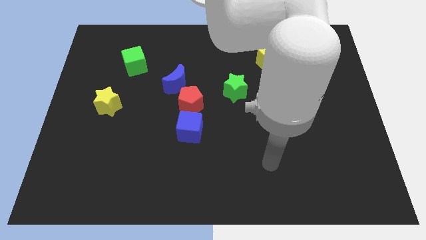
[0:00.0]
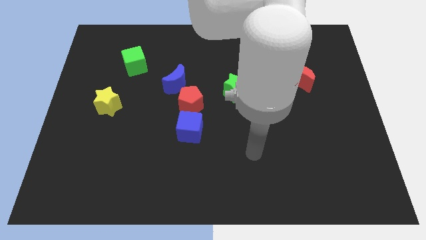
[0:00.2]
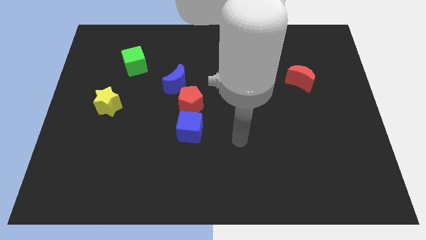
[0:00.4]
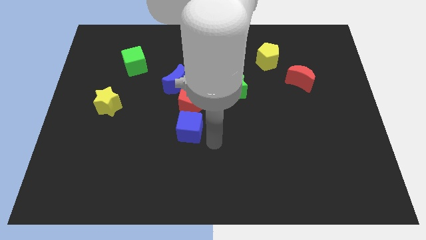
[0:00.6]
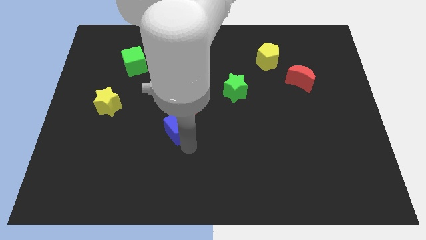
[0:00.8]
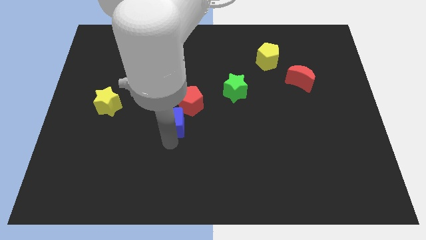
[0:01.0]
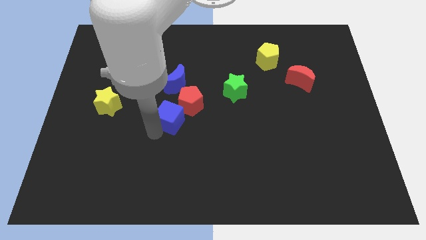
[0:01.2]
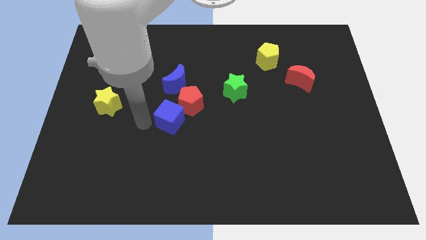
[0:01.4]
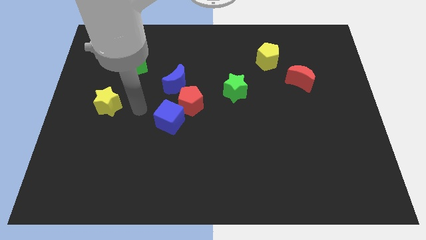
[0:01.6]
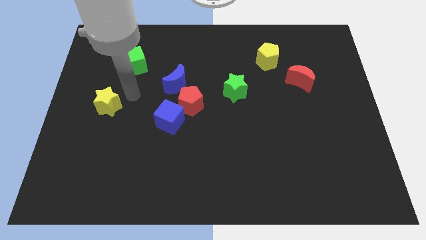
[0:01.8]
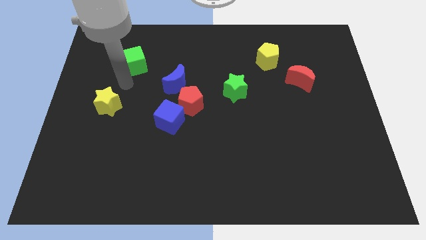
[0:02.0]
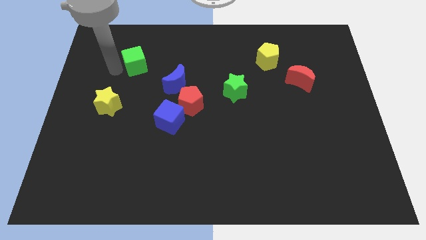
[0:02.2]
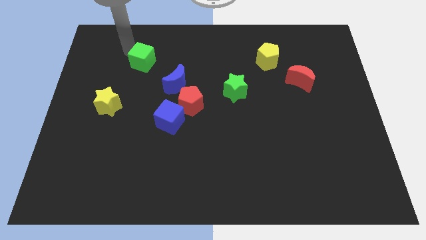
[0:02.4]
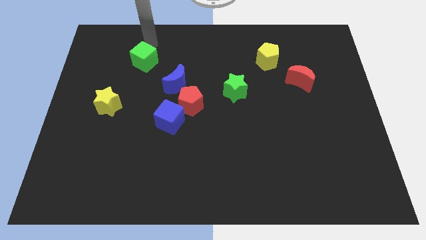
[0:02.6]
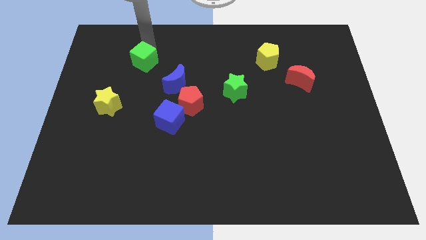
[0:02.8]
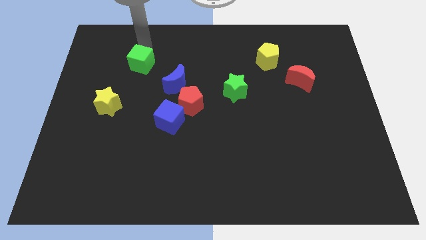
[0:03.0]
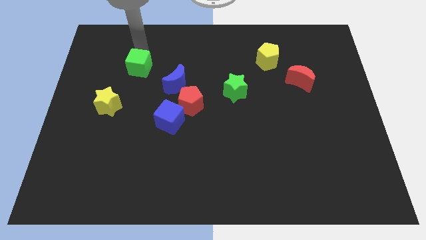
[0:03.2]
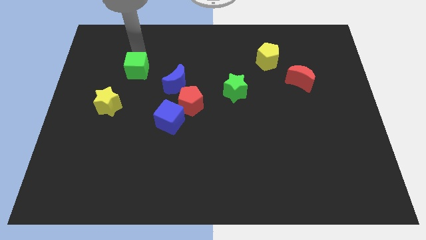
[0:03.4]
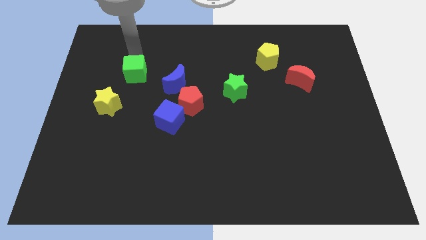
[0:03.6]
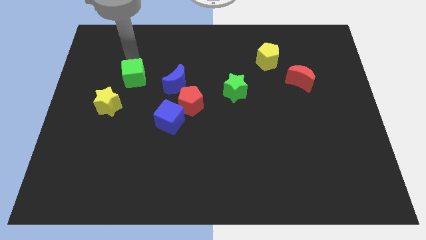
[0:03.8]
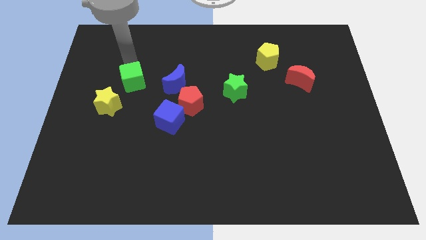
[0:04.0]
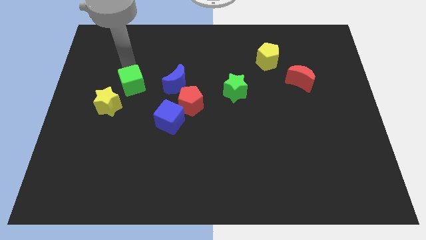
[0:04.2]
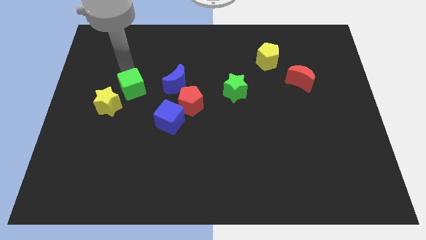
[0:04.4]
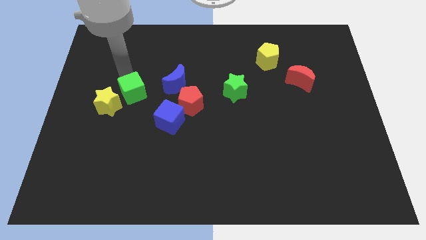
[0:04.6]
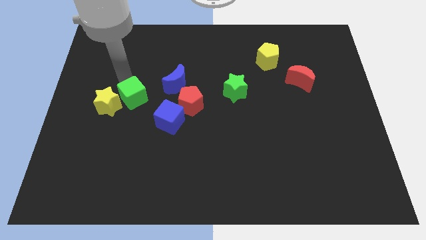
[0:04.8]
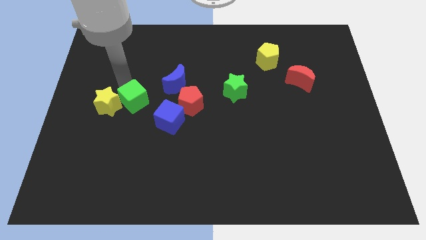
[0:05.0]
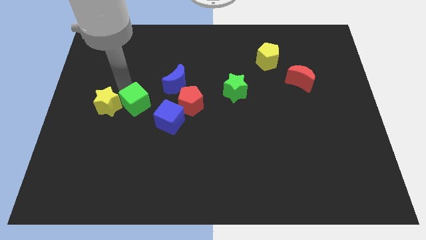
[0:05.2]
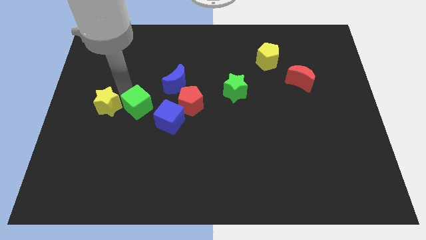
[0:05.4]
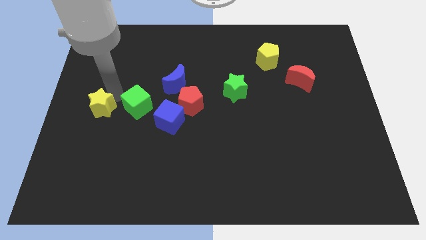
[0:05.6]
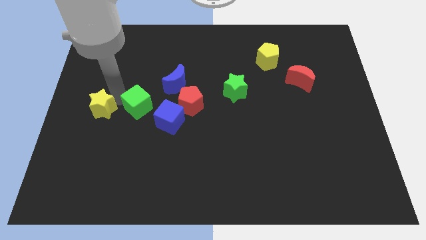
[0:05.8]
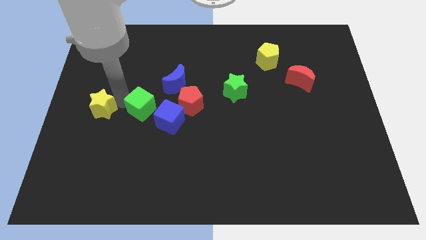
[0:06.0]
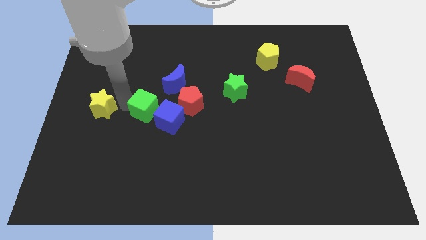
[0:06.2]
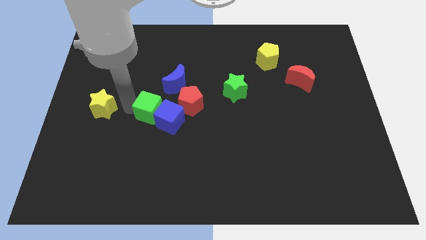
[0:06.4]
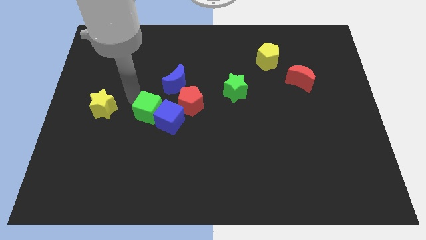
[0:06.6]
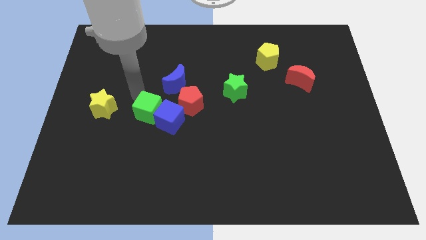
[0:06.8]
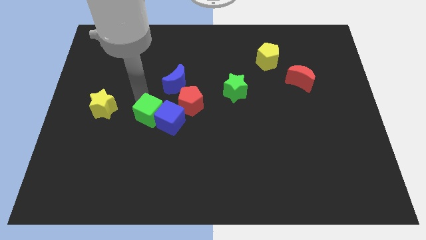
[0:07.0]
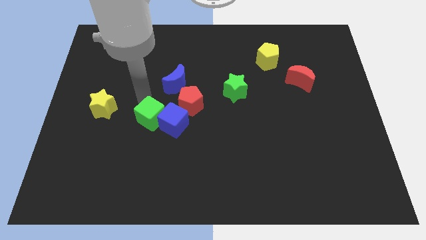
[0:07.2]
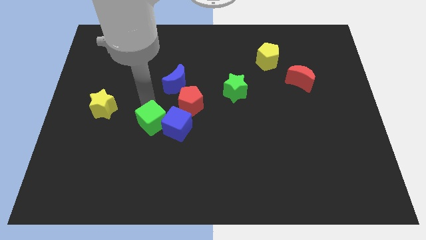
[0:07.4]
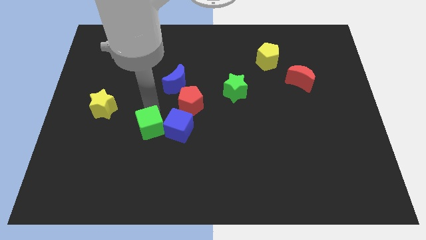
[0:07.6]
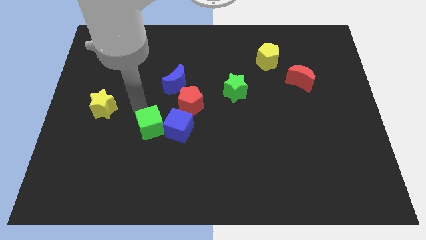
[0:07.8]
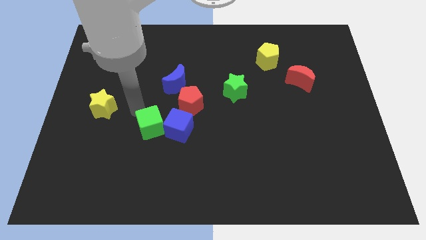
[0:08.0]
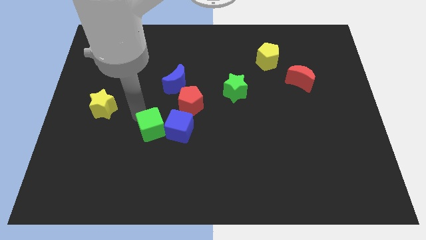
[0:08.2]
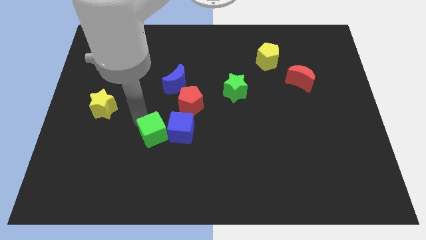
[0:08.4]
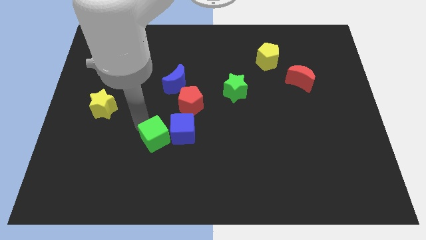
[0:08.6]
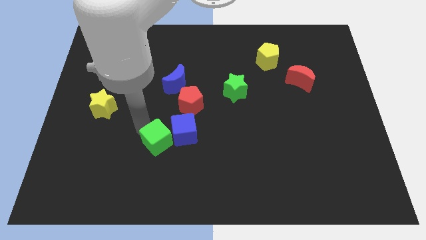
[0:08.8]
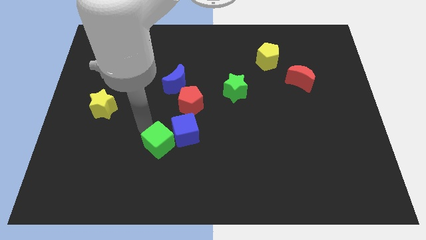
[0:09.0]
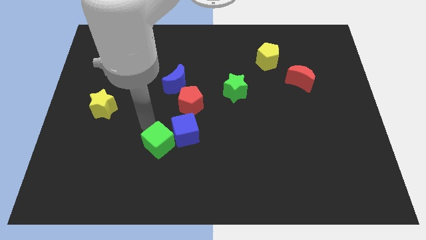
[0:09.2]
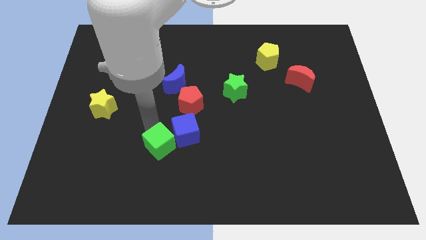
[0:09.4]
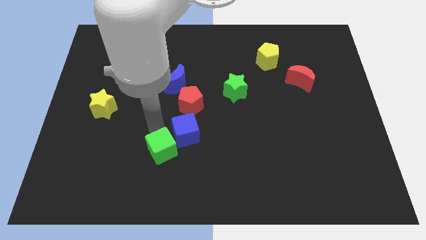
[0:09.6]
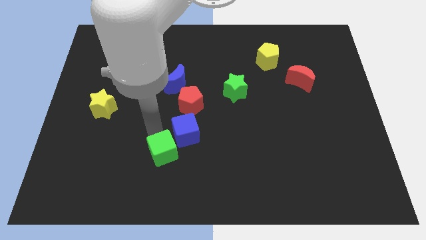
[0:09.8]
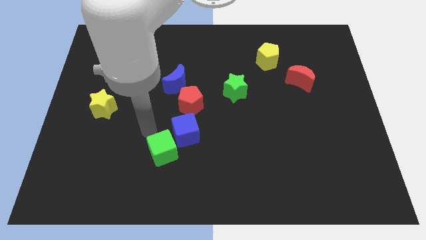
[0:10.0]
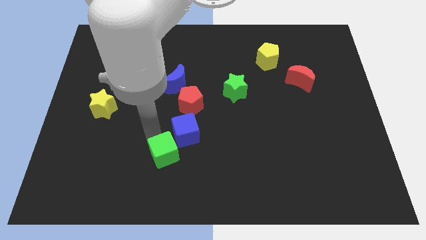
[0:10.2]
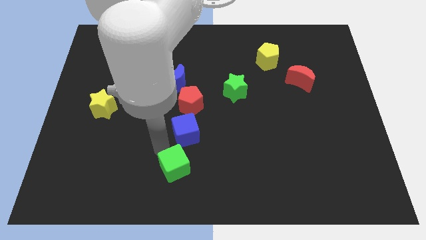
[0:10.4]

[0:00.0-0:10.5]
slide the green cube to the bottom side

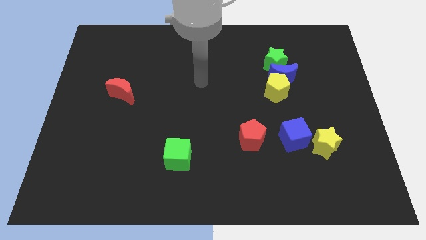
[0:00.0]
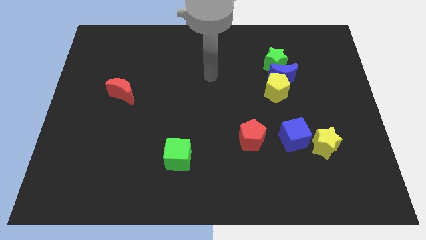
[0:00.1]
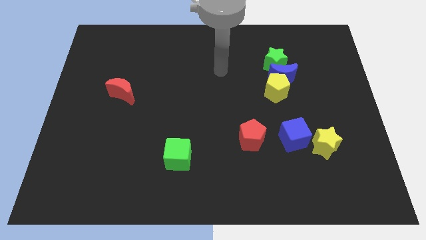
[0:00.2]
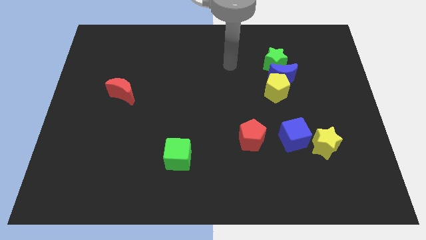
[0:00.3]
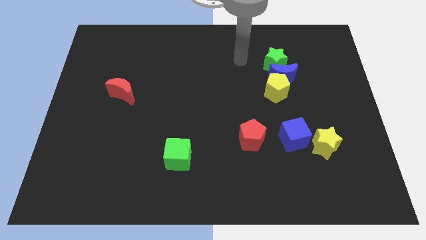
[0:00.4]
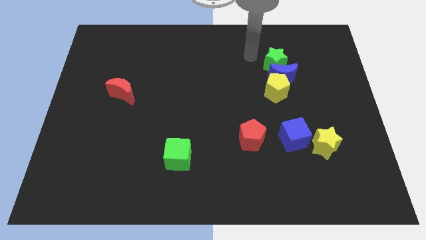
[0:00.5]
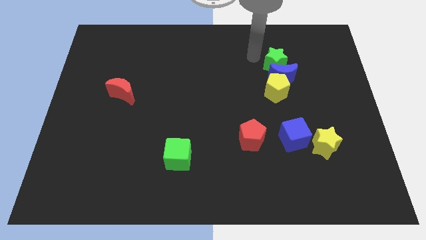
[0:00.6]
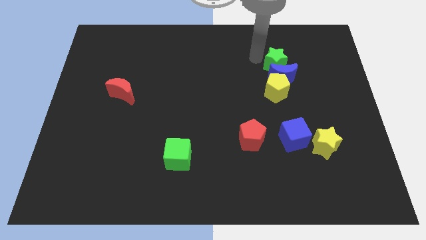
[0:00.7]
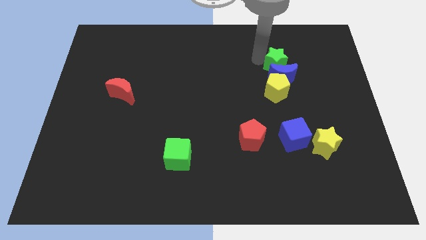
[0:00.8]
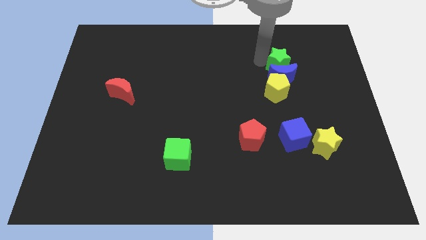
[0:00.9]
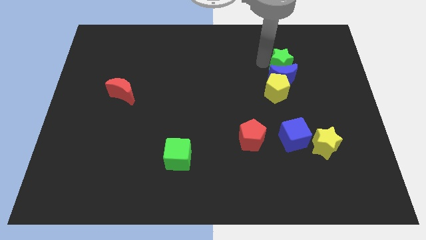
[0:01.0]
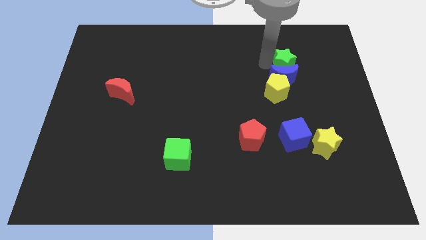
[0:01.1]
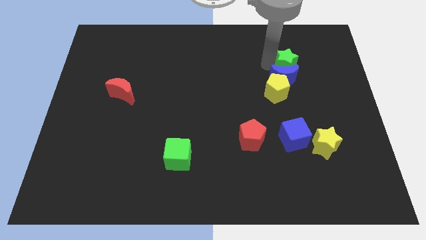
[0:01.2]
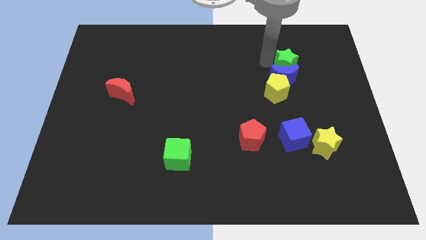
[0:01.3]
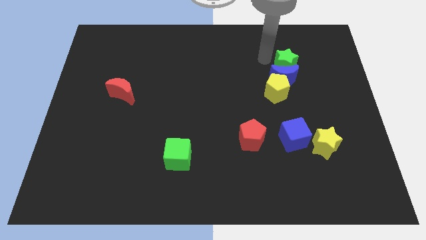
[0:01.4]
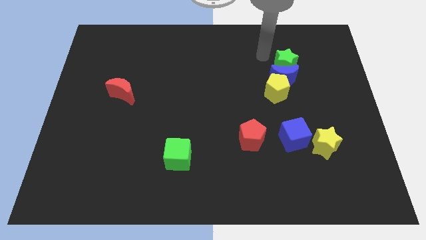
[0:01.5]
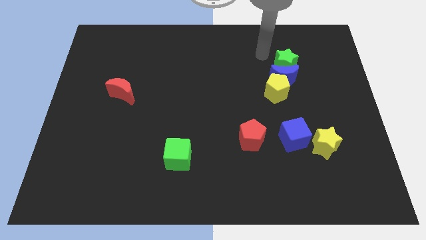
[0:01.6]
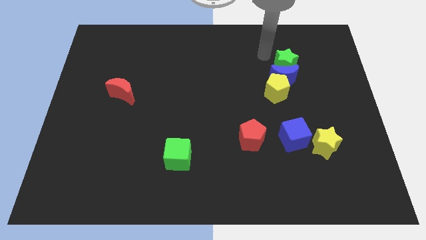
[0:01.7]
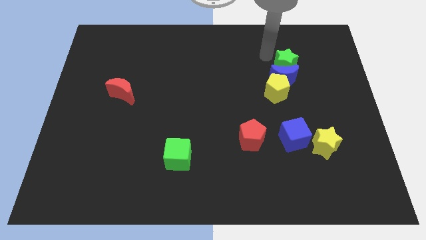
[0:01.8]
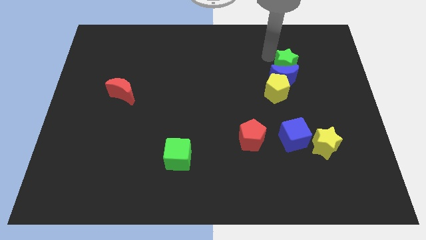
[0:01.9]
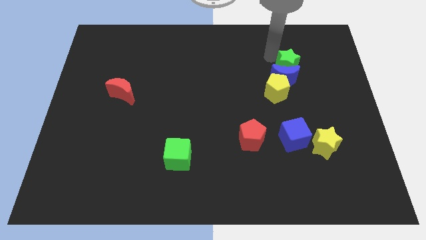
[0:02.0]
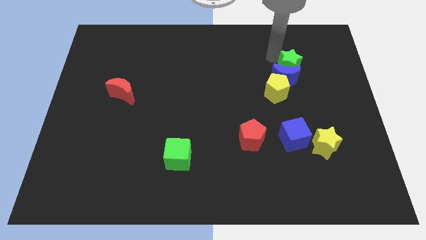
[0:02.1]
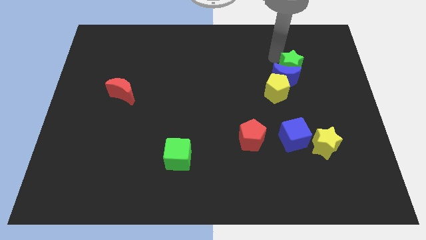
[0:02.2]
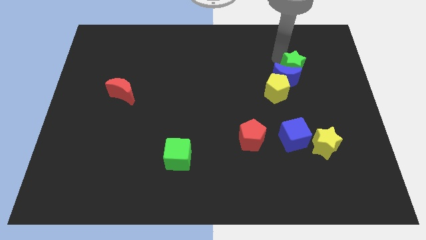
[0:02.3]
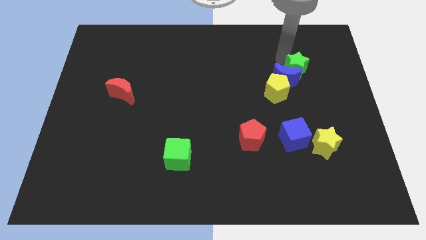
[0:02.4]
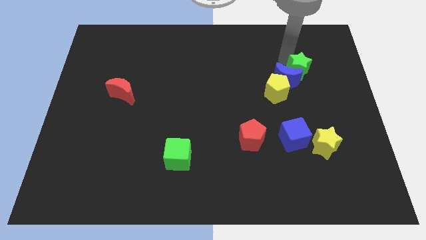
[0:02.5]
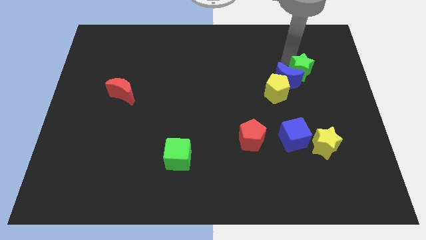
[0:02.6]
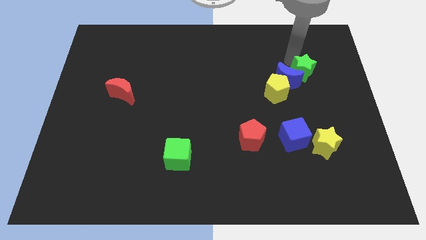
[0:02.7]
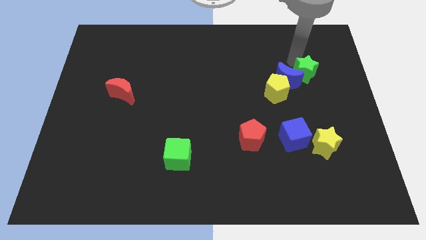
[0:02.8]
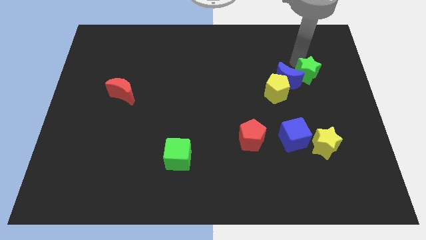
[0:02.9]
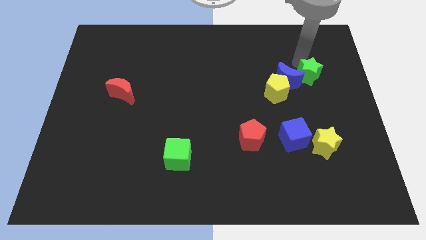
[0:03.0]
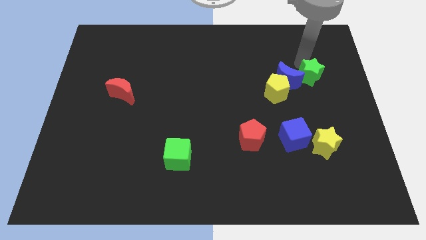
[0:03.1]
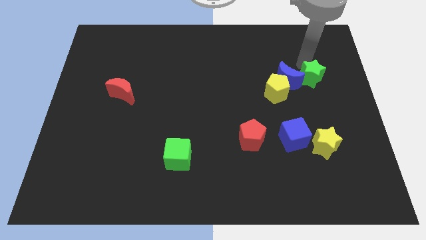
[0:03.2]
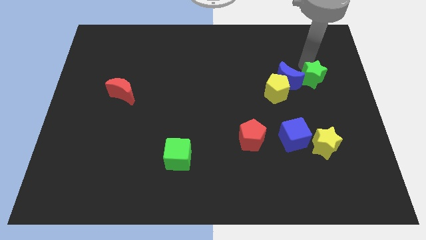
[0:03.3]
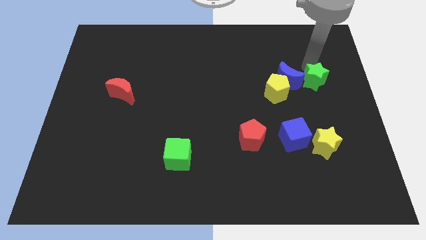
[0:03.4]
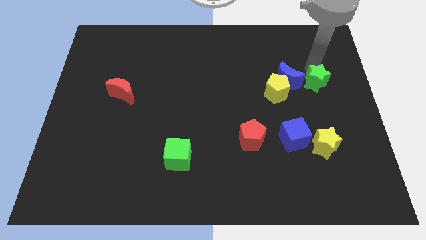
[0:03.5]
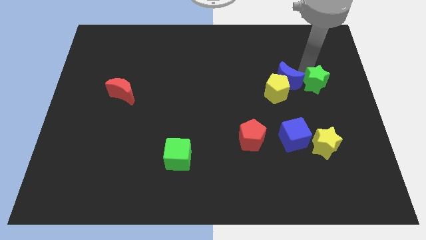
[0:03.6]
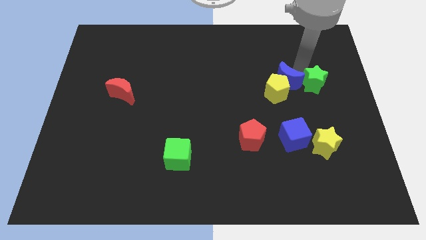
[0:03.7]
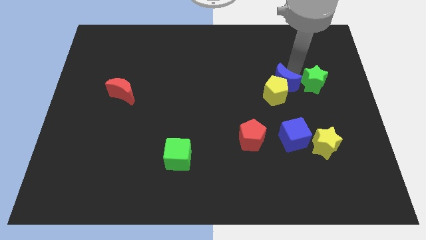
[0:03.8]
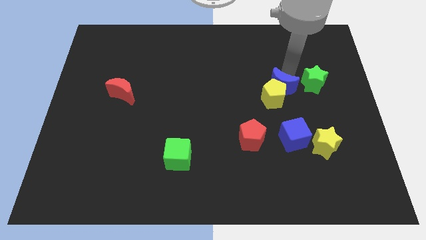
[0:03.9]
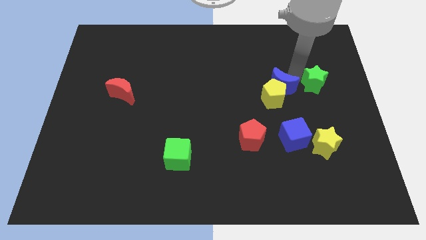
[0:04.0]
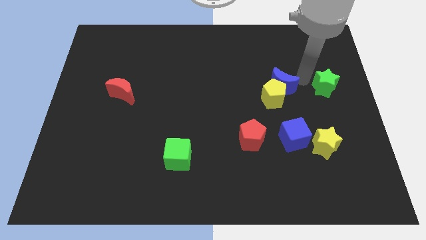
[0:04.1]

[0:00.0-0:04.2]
slide the green star to the center right
